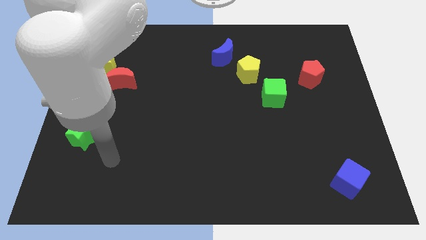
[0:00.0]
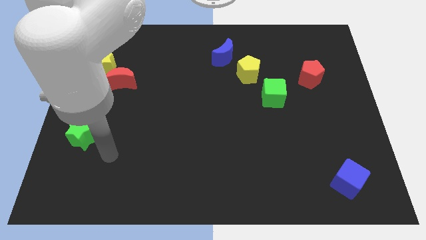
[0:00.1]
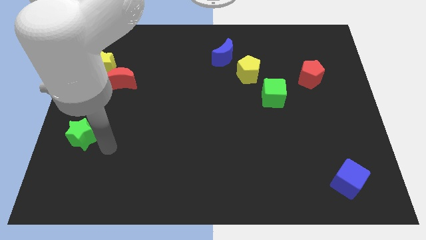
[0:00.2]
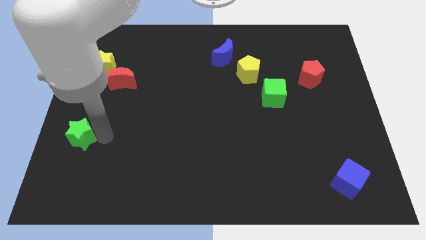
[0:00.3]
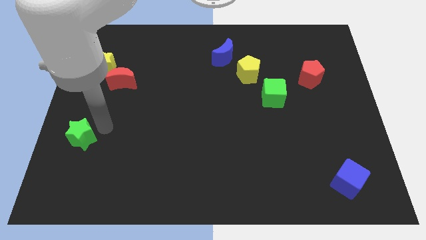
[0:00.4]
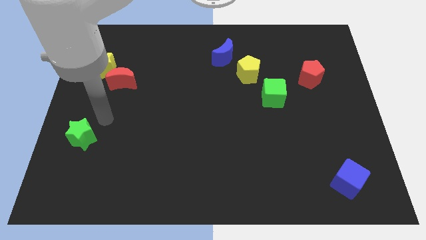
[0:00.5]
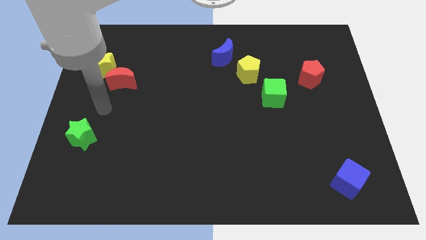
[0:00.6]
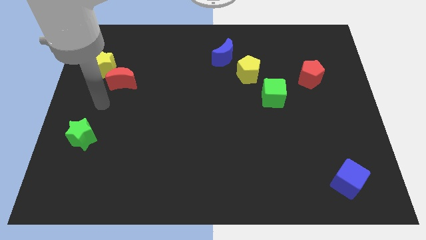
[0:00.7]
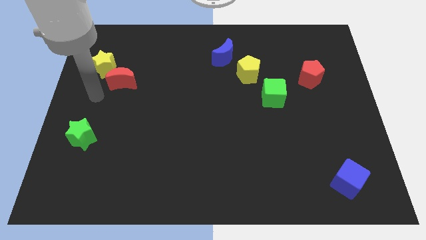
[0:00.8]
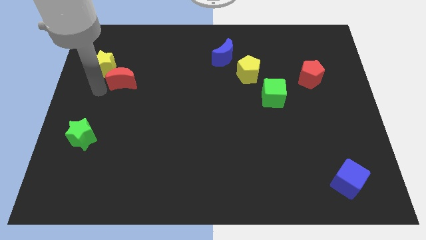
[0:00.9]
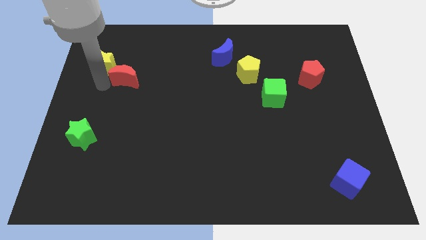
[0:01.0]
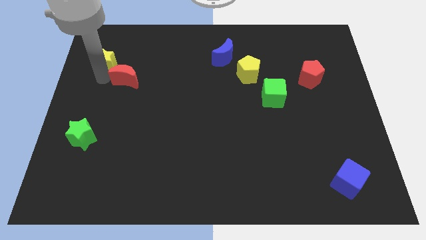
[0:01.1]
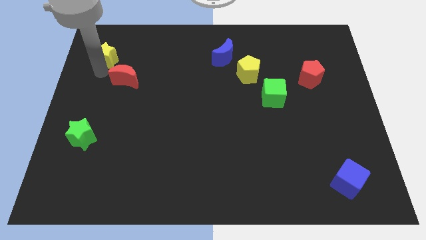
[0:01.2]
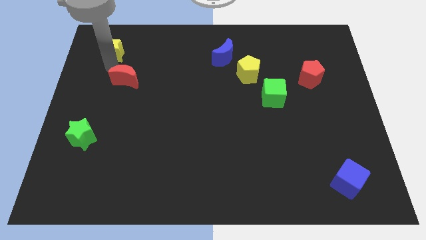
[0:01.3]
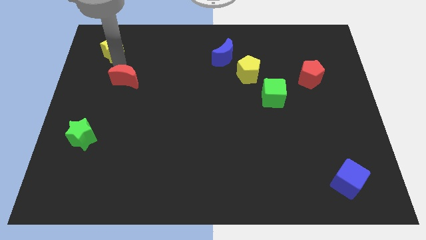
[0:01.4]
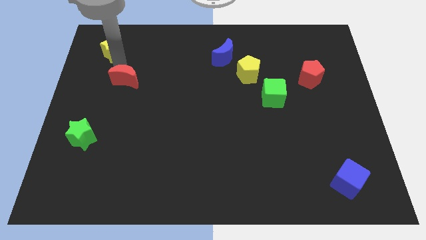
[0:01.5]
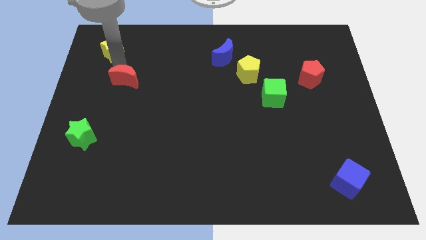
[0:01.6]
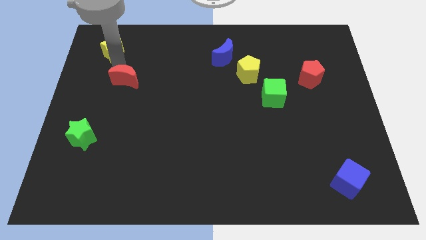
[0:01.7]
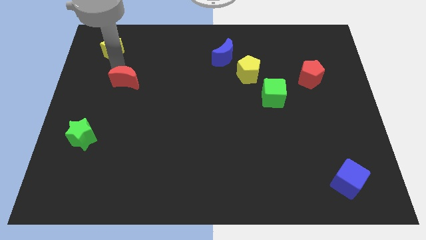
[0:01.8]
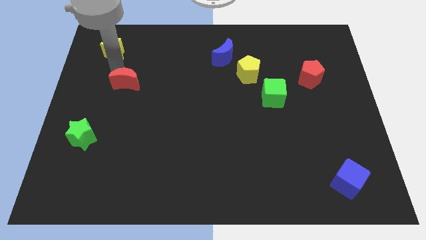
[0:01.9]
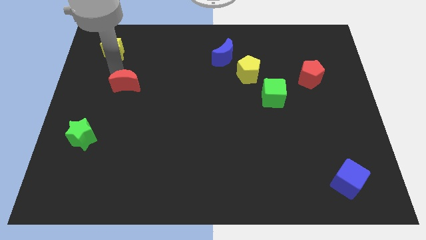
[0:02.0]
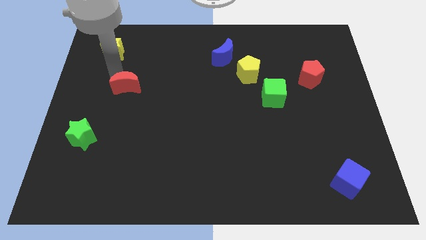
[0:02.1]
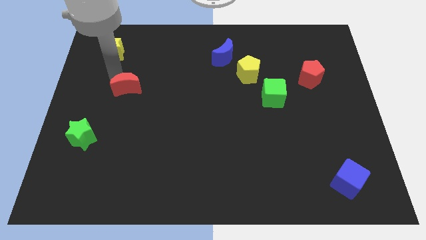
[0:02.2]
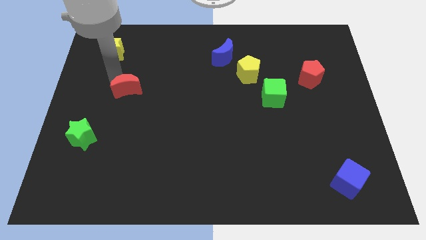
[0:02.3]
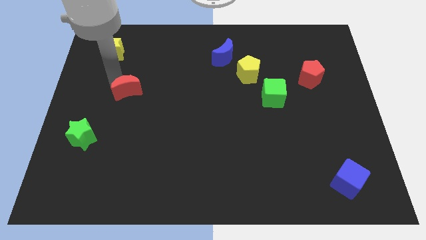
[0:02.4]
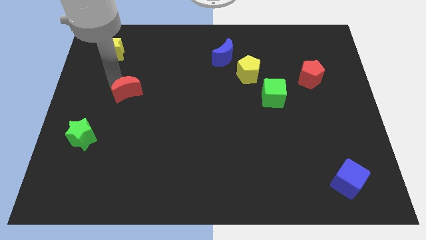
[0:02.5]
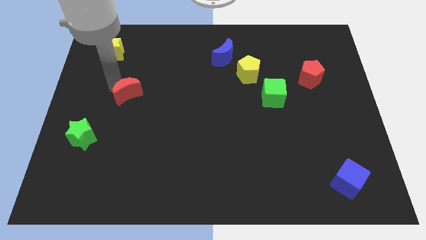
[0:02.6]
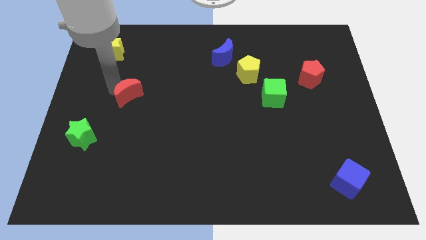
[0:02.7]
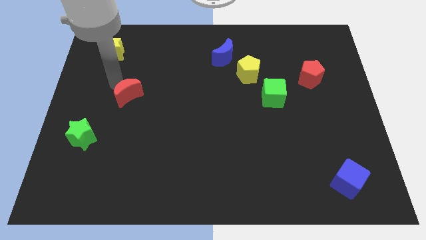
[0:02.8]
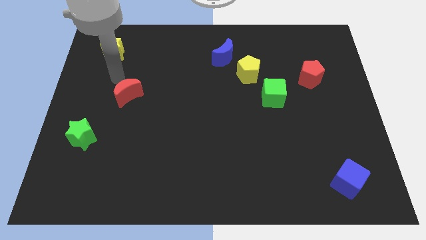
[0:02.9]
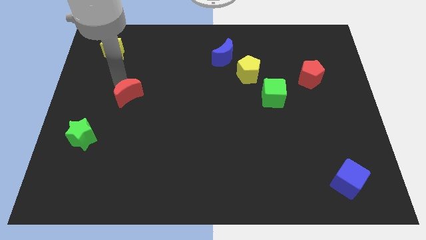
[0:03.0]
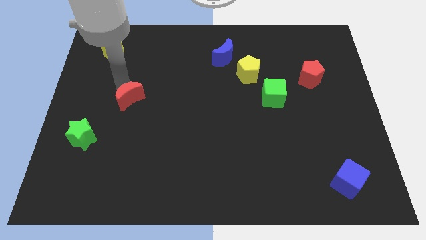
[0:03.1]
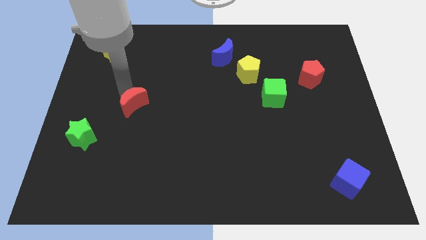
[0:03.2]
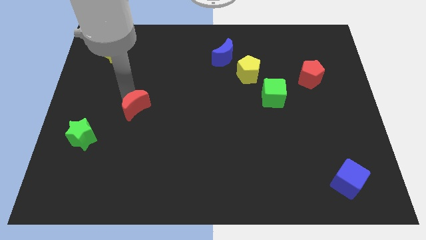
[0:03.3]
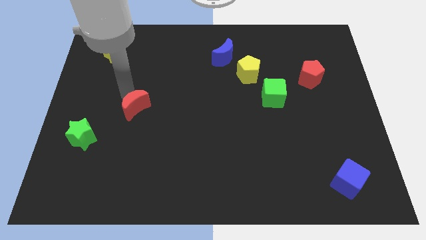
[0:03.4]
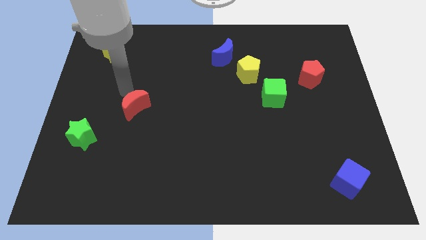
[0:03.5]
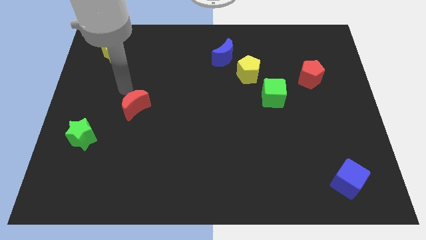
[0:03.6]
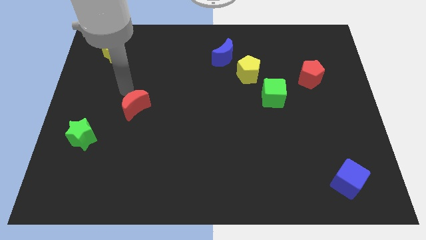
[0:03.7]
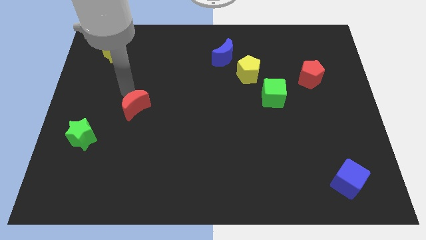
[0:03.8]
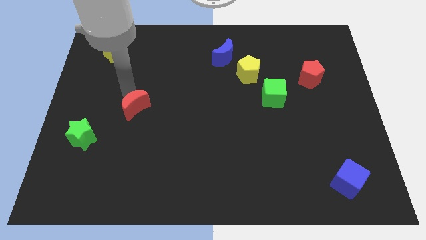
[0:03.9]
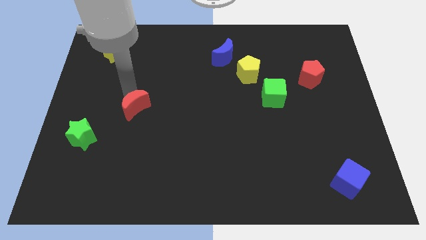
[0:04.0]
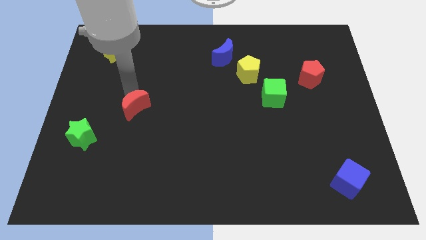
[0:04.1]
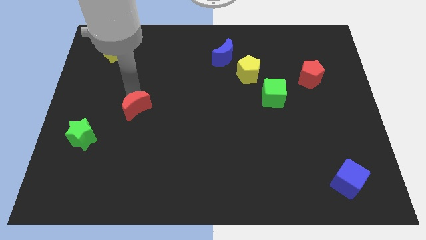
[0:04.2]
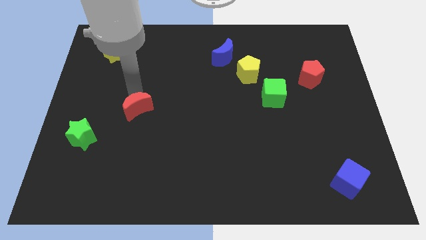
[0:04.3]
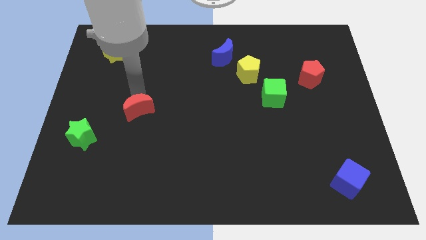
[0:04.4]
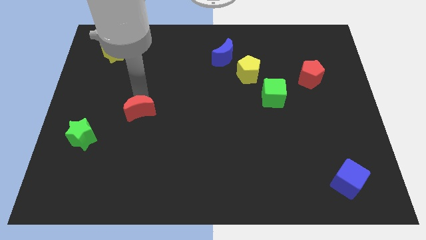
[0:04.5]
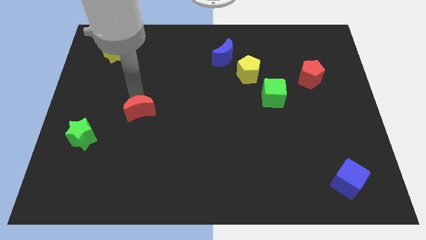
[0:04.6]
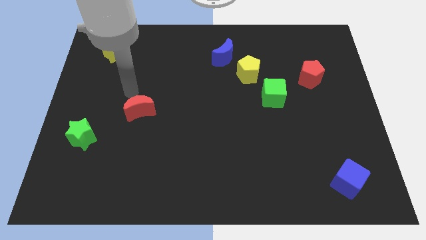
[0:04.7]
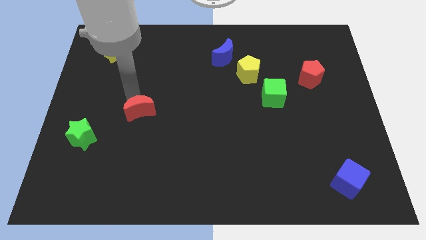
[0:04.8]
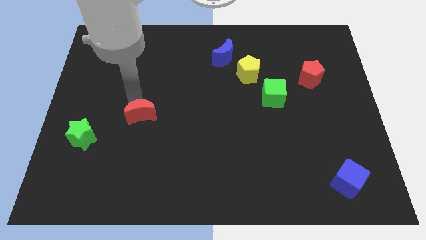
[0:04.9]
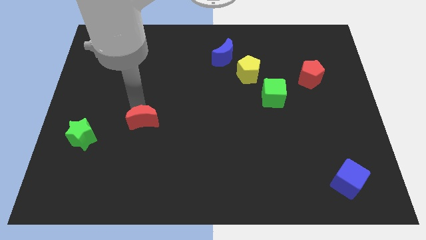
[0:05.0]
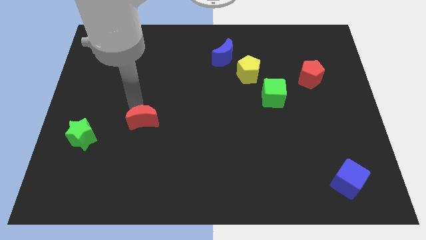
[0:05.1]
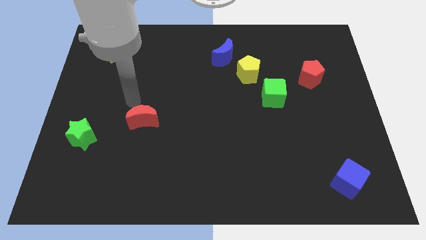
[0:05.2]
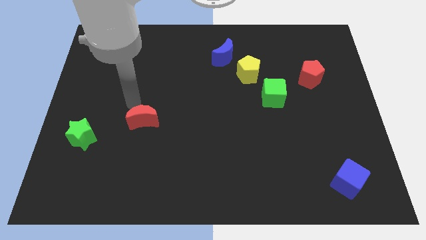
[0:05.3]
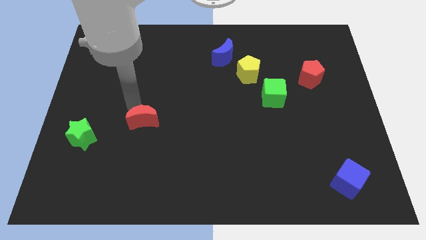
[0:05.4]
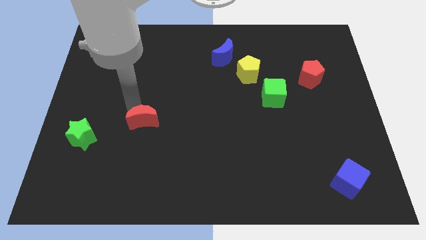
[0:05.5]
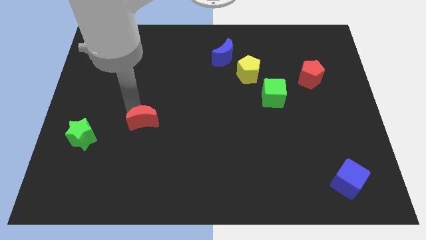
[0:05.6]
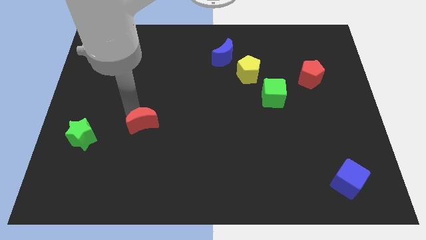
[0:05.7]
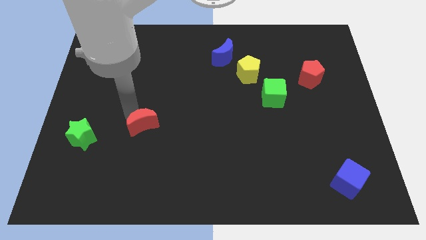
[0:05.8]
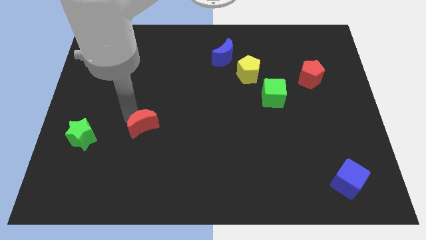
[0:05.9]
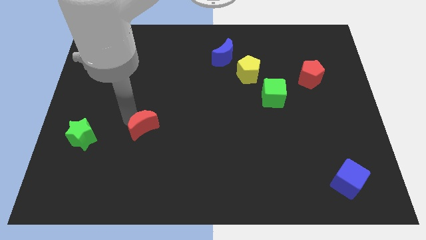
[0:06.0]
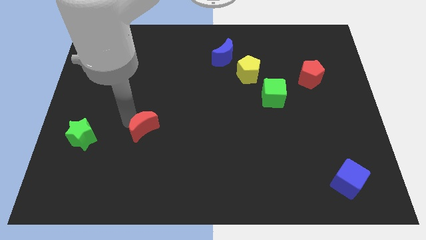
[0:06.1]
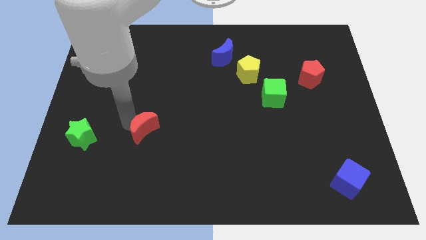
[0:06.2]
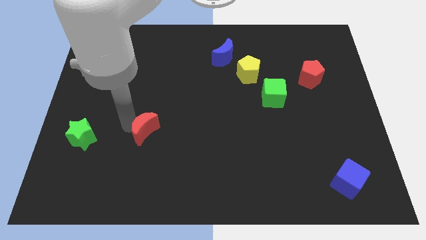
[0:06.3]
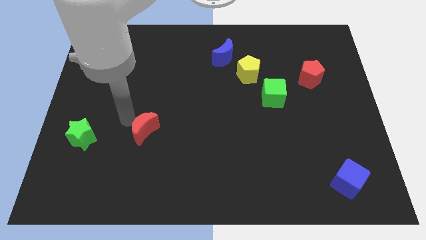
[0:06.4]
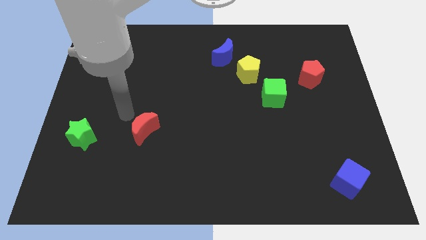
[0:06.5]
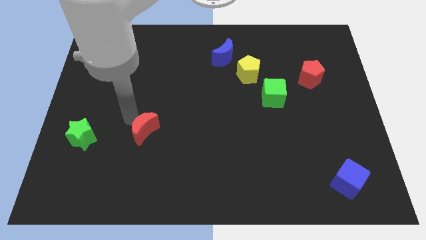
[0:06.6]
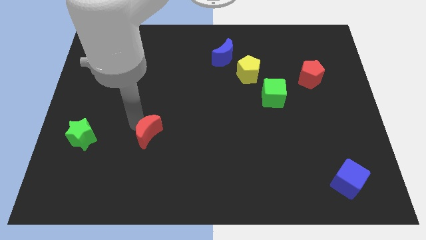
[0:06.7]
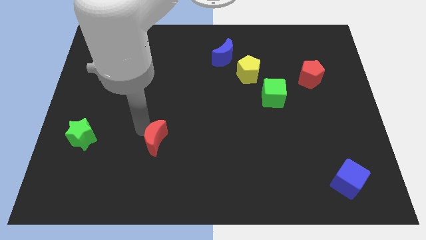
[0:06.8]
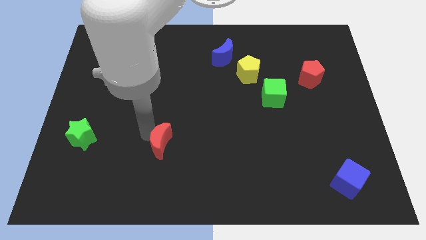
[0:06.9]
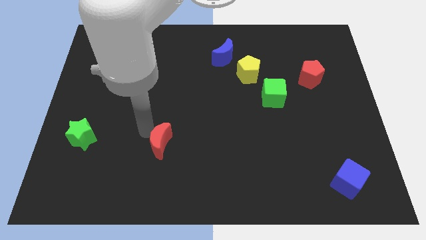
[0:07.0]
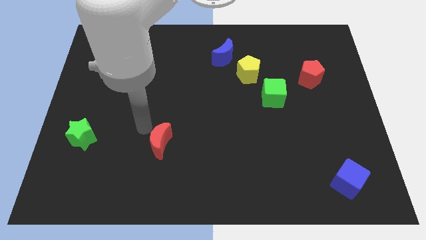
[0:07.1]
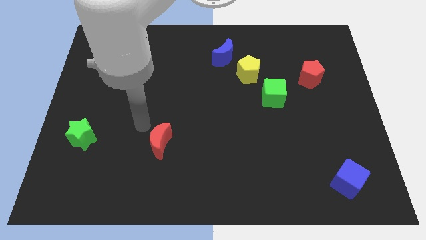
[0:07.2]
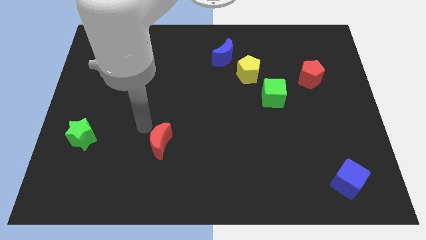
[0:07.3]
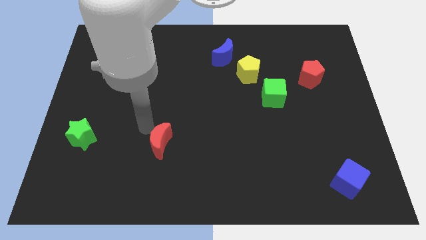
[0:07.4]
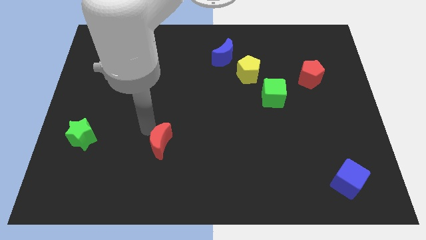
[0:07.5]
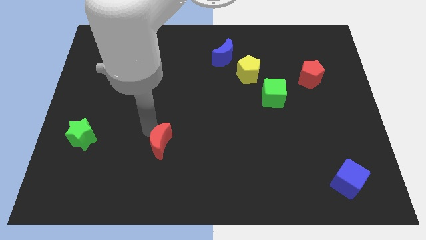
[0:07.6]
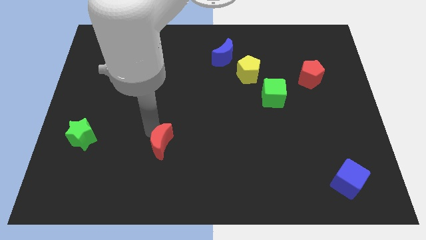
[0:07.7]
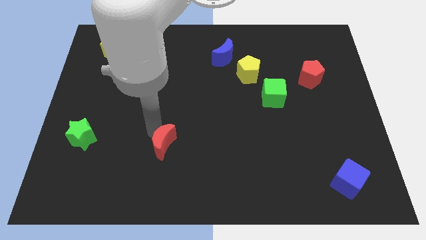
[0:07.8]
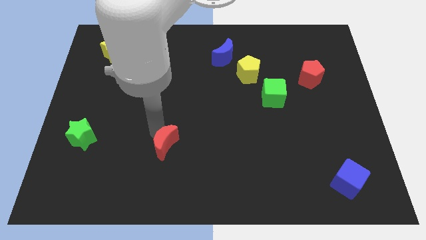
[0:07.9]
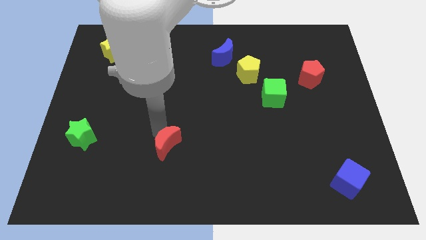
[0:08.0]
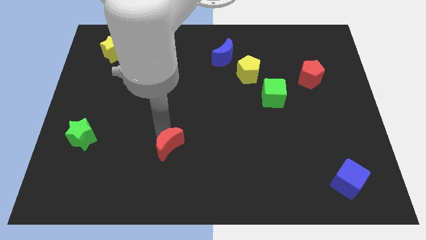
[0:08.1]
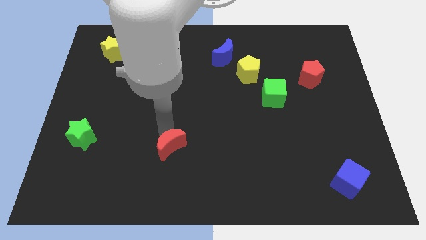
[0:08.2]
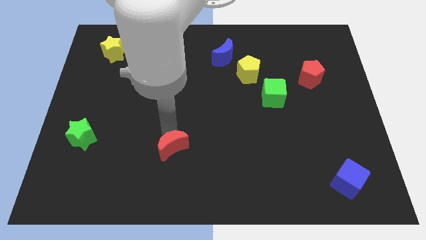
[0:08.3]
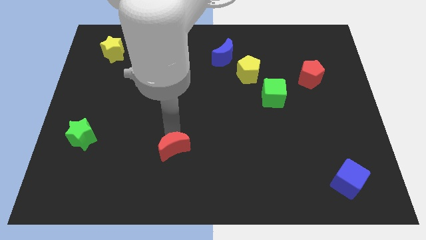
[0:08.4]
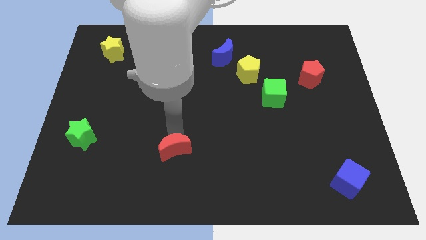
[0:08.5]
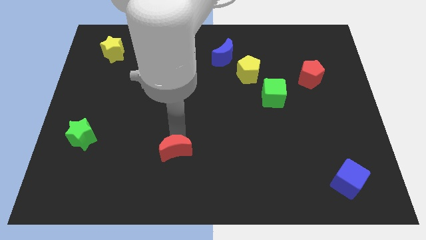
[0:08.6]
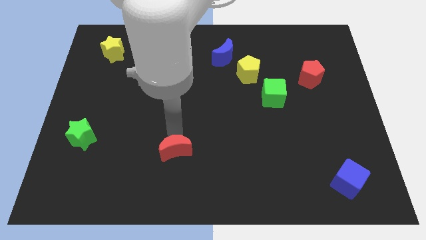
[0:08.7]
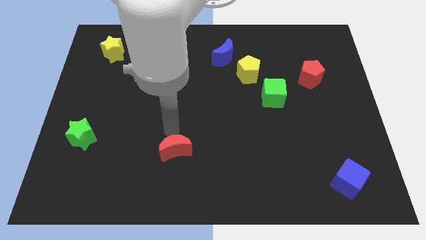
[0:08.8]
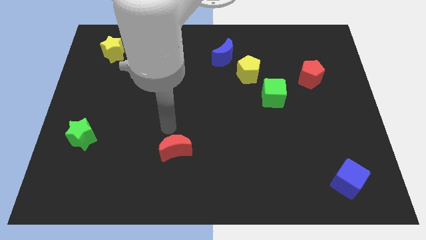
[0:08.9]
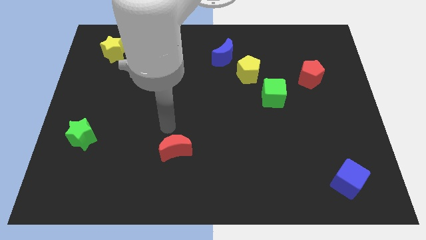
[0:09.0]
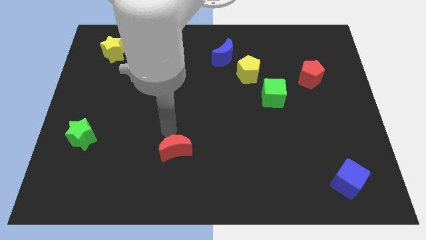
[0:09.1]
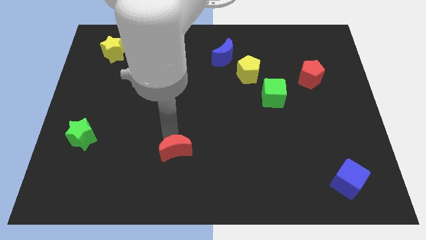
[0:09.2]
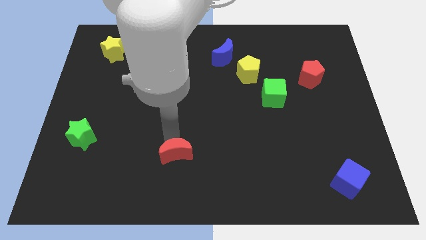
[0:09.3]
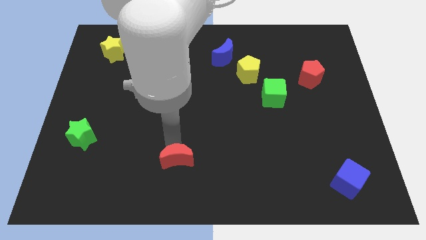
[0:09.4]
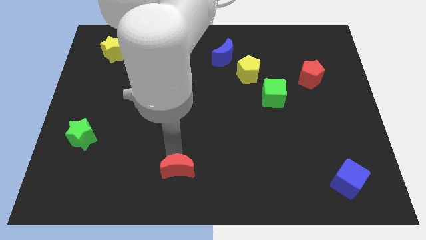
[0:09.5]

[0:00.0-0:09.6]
put the red moon to the bottom
